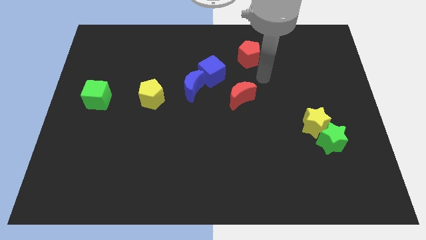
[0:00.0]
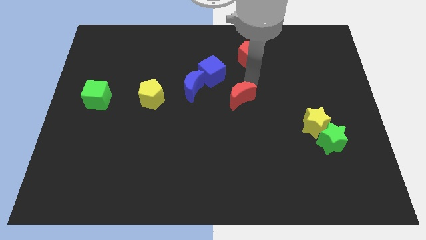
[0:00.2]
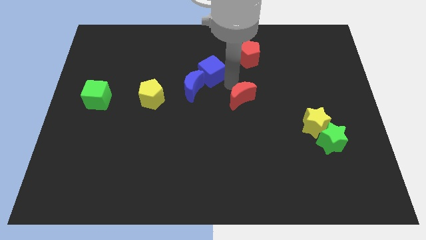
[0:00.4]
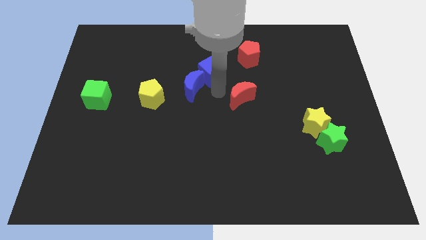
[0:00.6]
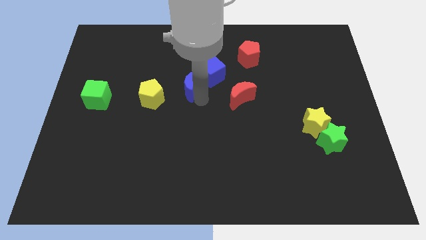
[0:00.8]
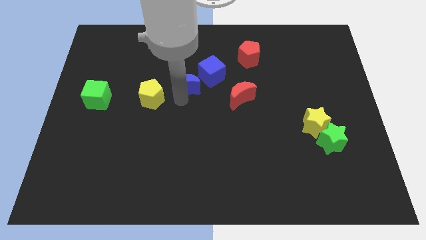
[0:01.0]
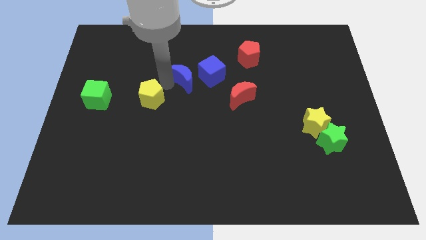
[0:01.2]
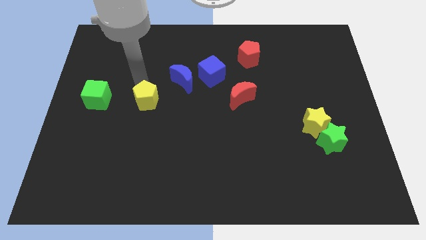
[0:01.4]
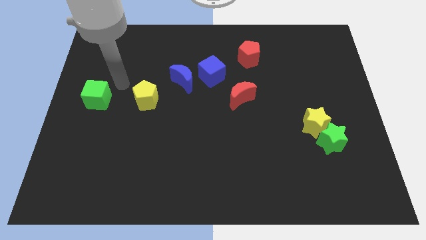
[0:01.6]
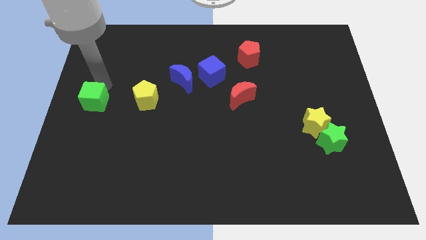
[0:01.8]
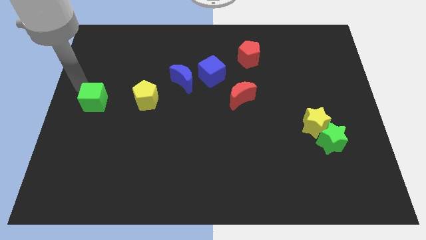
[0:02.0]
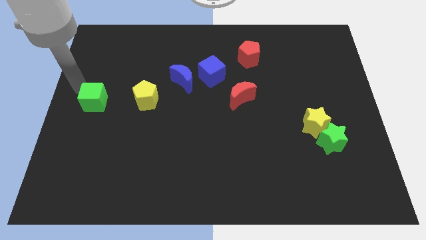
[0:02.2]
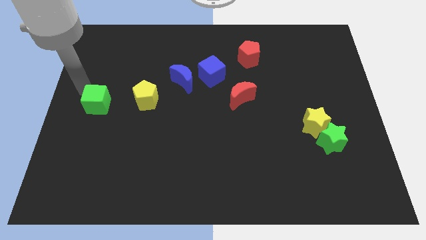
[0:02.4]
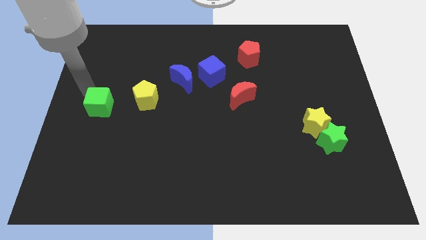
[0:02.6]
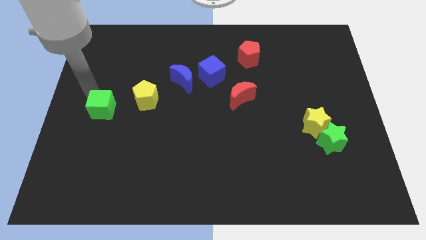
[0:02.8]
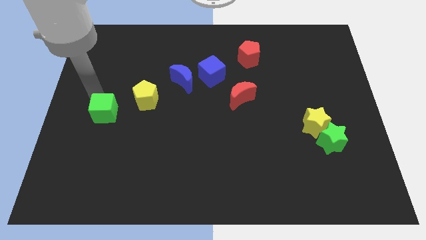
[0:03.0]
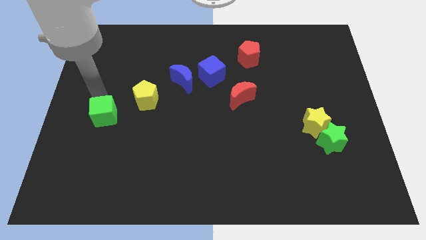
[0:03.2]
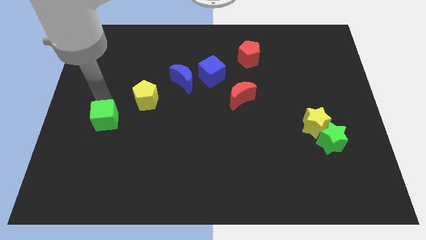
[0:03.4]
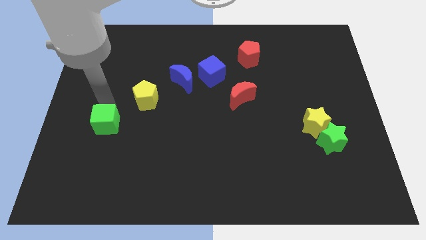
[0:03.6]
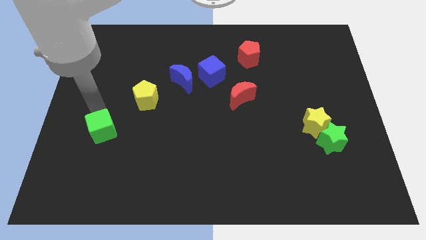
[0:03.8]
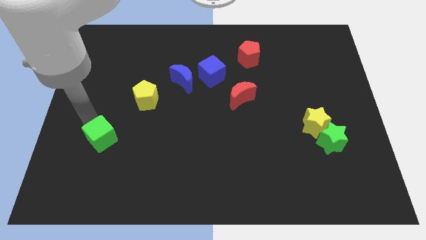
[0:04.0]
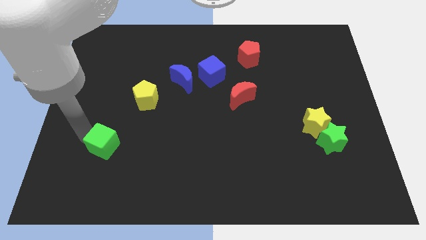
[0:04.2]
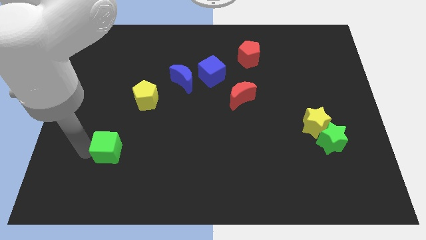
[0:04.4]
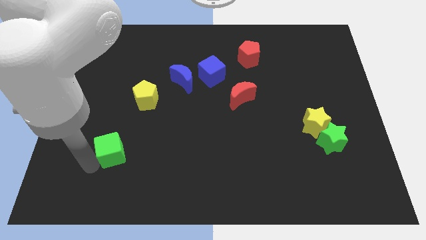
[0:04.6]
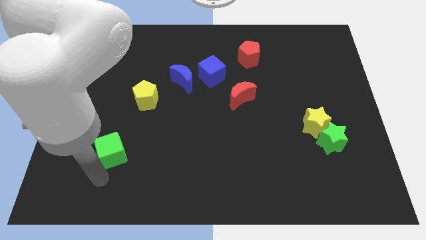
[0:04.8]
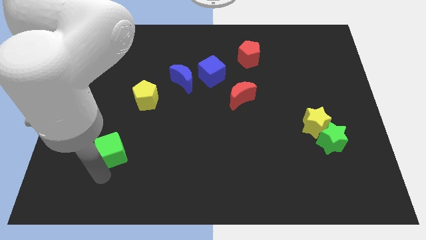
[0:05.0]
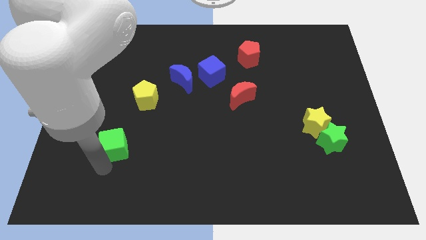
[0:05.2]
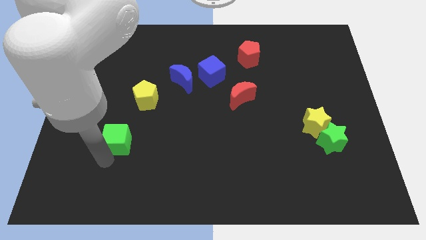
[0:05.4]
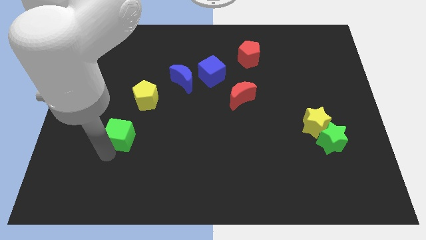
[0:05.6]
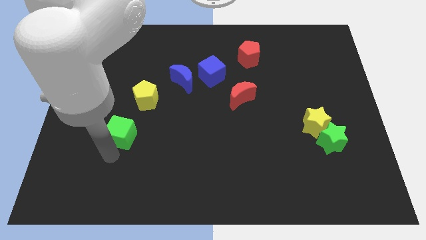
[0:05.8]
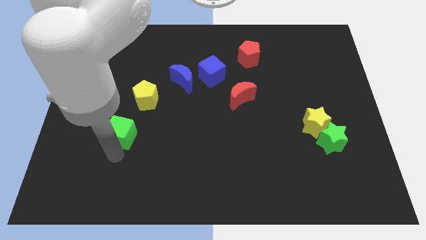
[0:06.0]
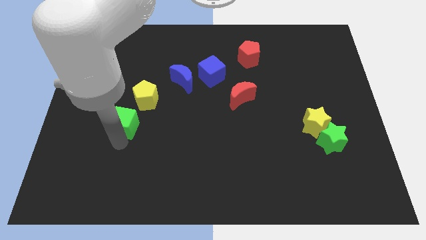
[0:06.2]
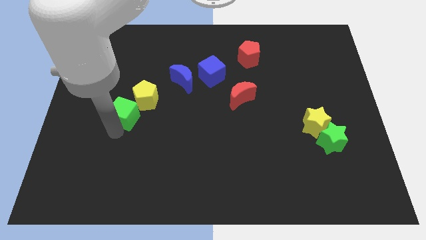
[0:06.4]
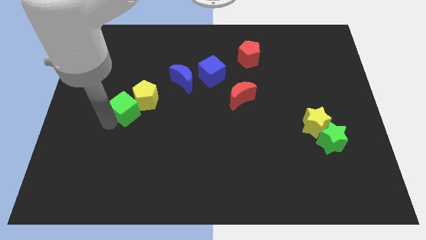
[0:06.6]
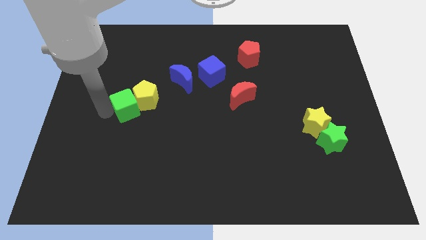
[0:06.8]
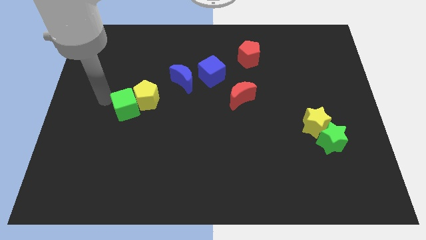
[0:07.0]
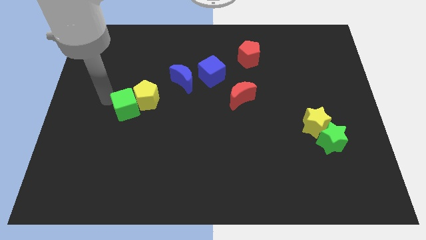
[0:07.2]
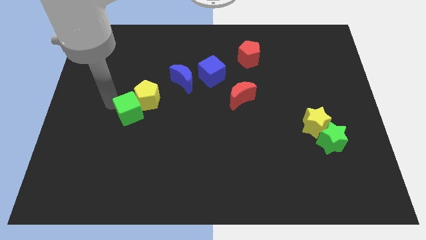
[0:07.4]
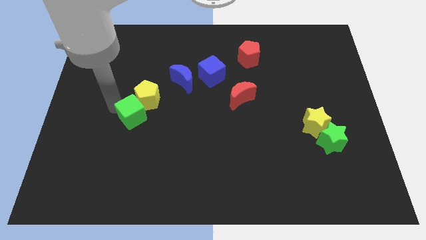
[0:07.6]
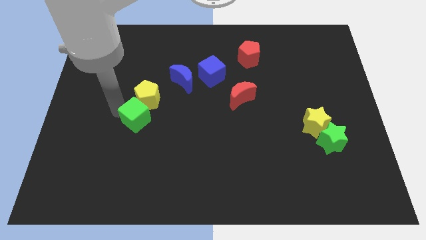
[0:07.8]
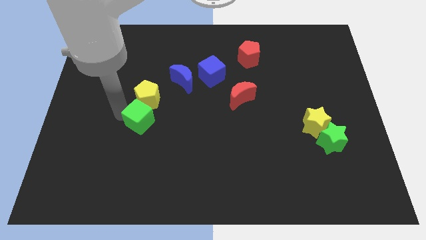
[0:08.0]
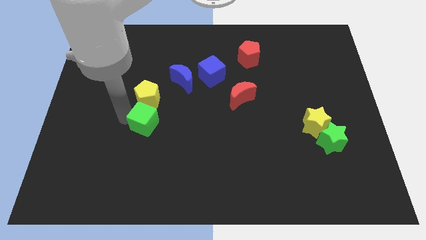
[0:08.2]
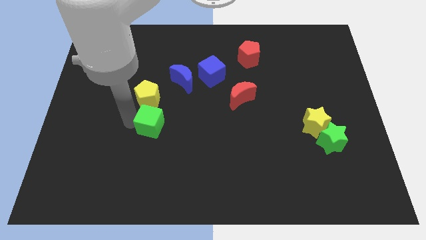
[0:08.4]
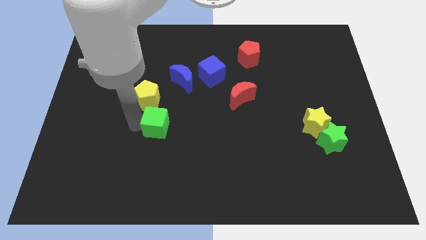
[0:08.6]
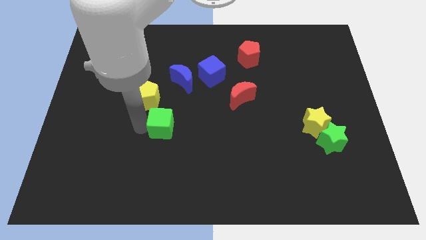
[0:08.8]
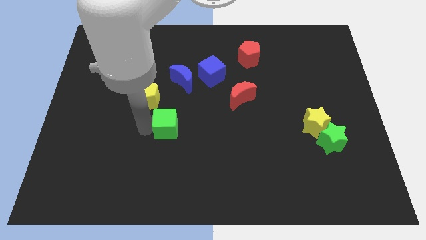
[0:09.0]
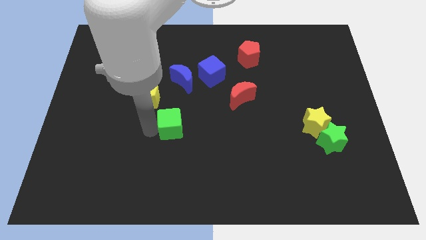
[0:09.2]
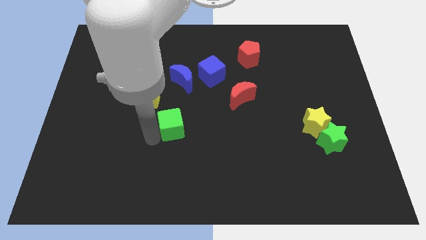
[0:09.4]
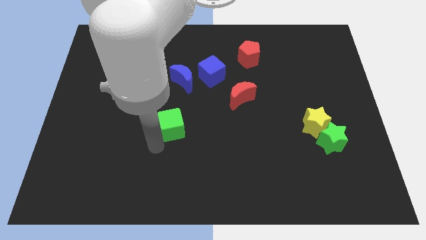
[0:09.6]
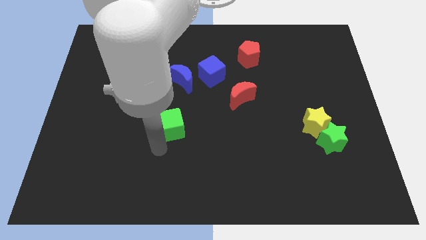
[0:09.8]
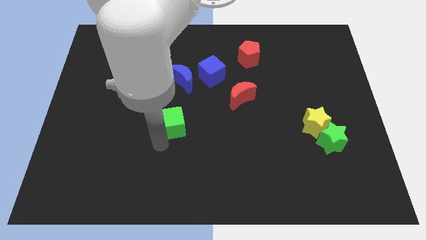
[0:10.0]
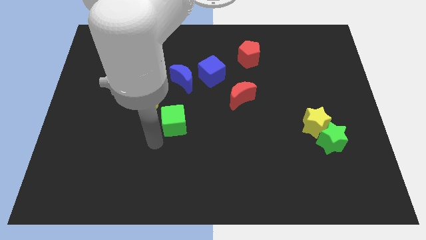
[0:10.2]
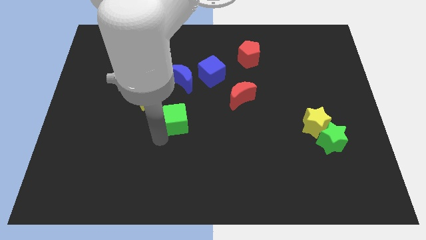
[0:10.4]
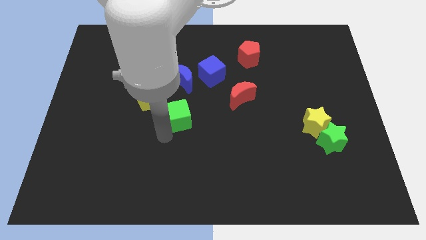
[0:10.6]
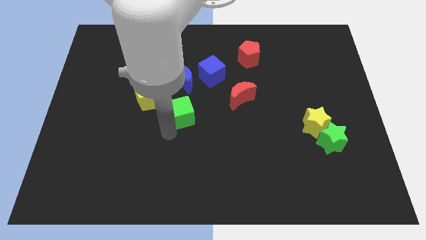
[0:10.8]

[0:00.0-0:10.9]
put the green cube to the right of the yellow pentagon

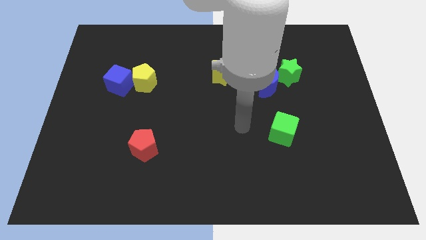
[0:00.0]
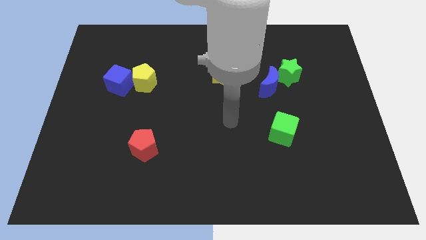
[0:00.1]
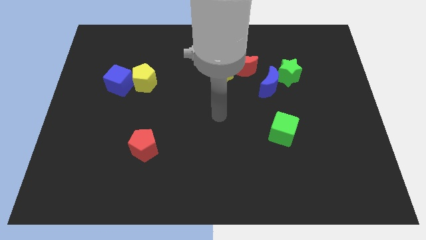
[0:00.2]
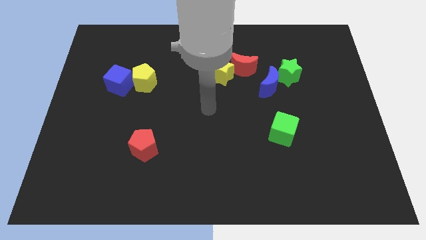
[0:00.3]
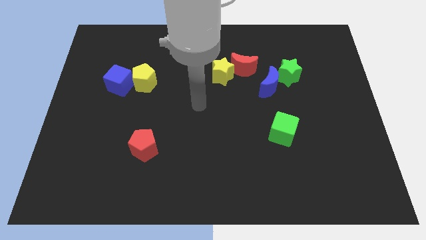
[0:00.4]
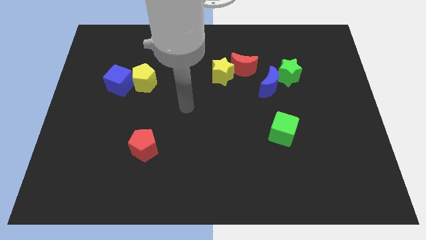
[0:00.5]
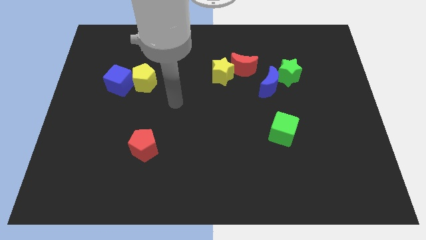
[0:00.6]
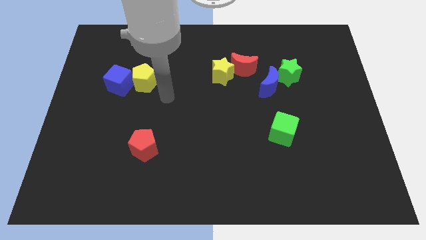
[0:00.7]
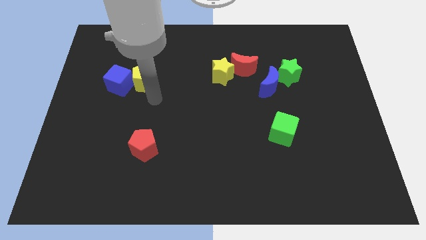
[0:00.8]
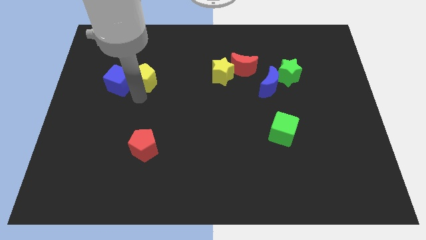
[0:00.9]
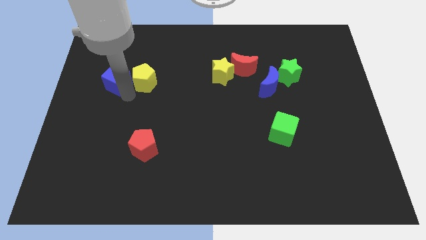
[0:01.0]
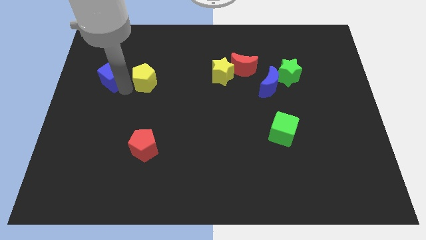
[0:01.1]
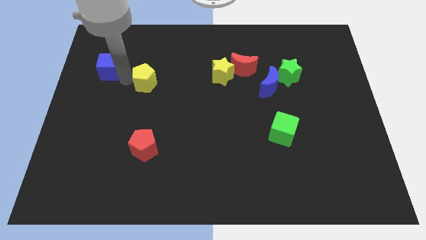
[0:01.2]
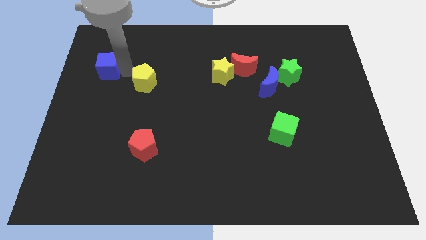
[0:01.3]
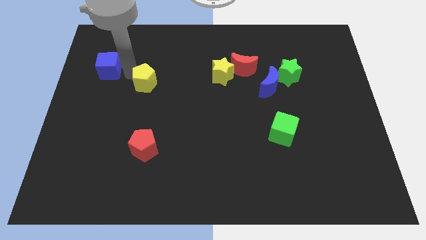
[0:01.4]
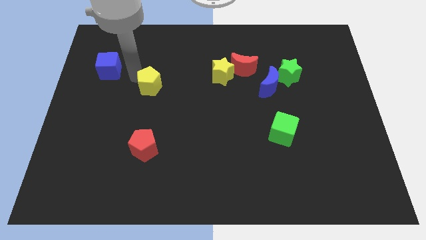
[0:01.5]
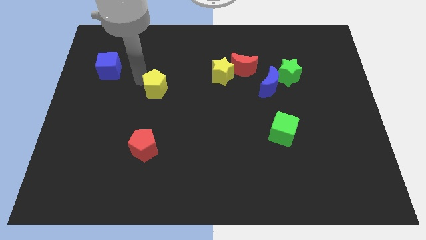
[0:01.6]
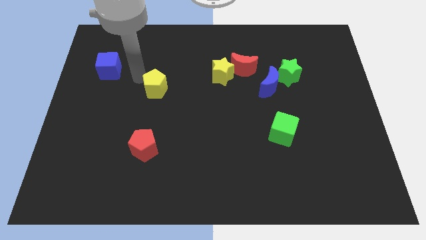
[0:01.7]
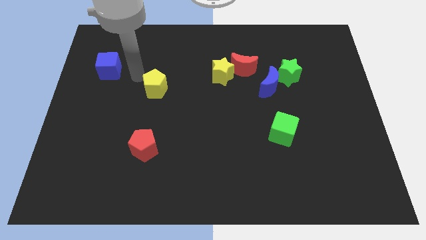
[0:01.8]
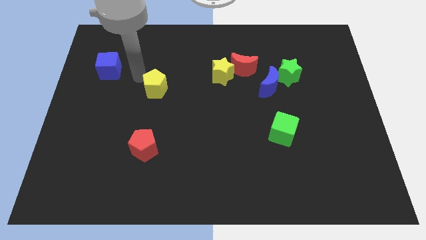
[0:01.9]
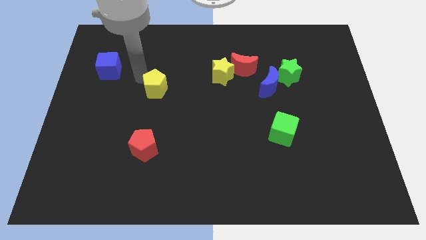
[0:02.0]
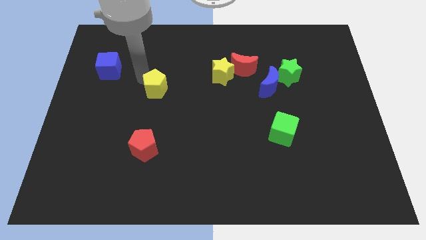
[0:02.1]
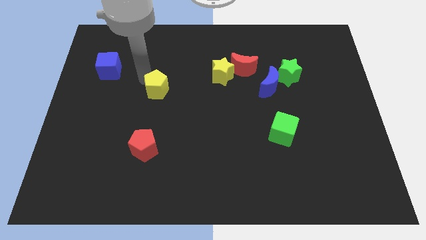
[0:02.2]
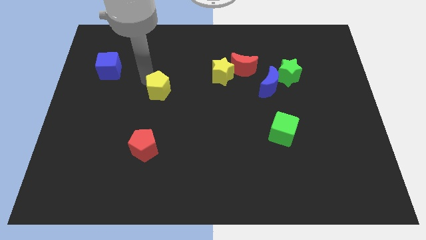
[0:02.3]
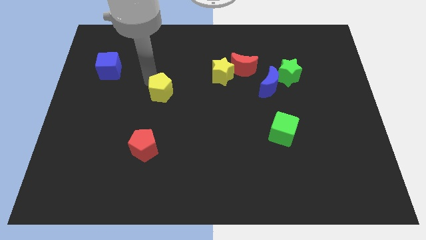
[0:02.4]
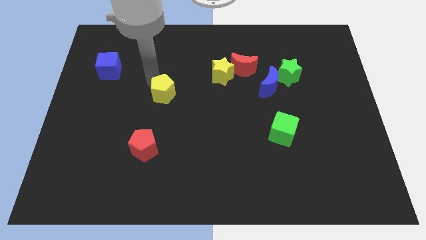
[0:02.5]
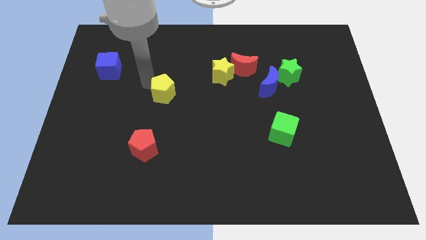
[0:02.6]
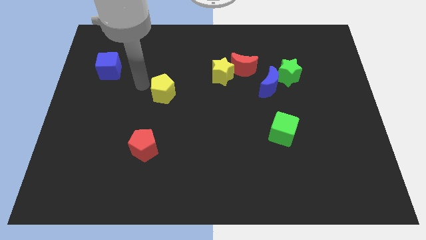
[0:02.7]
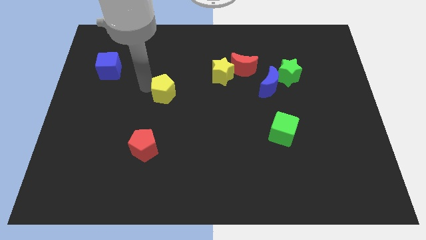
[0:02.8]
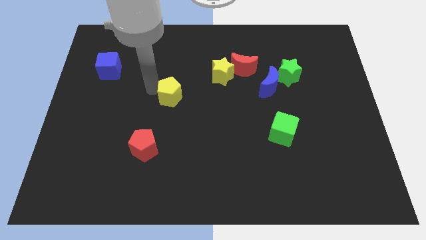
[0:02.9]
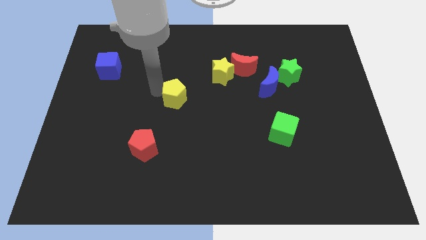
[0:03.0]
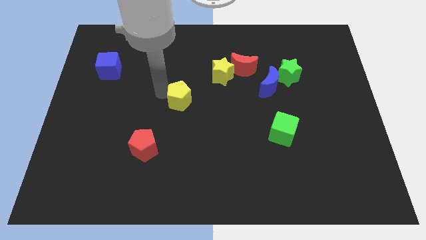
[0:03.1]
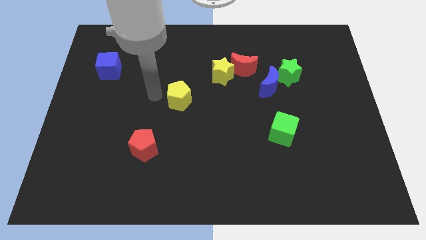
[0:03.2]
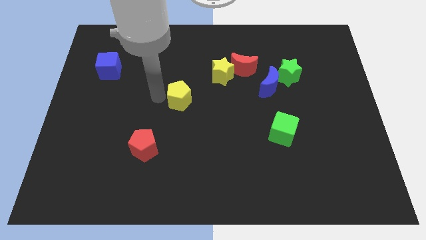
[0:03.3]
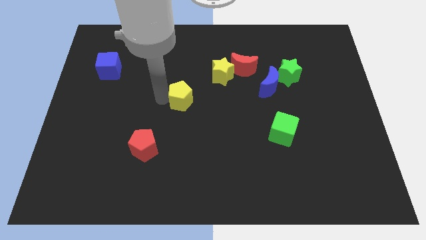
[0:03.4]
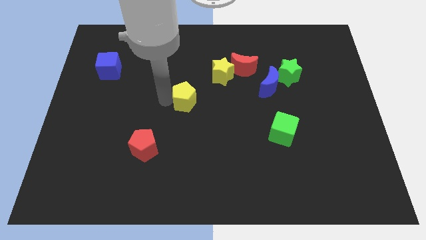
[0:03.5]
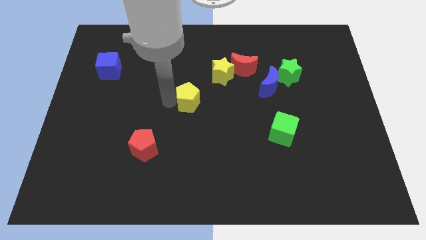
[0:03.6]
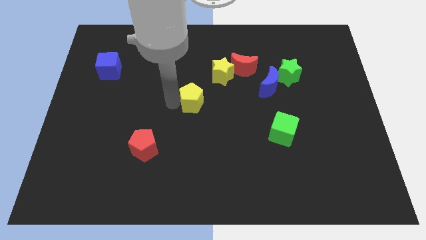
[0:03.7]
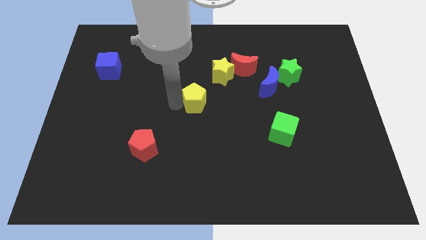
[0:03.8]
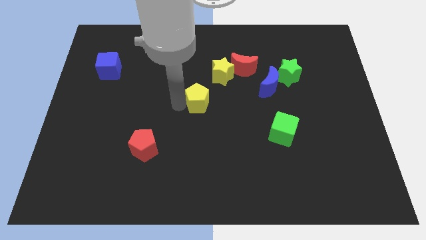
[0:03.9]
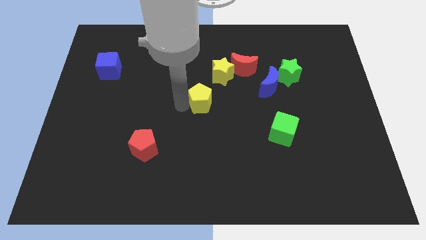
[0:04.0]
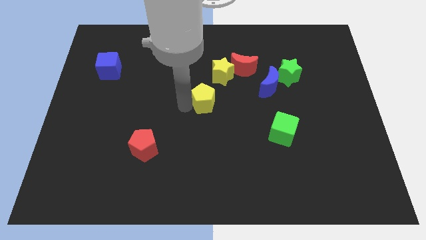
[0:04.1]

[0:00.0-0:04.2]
push the yellow pentagon below the yellow star
